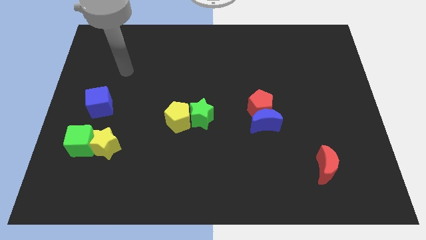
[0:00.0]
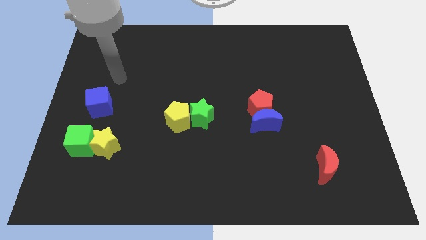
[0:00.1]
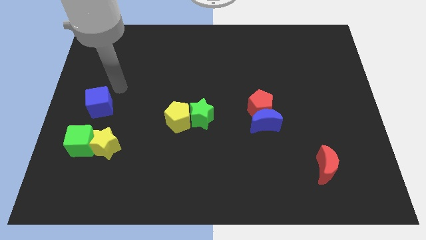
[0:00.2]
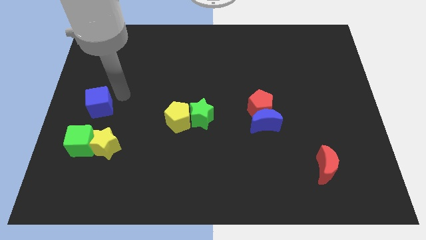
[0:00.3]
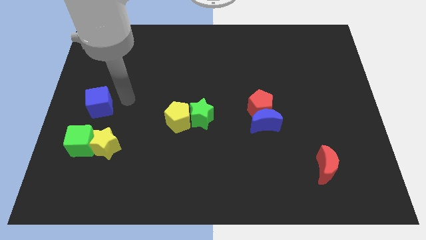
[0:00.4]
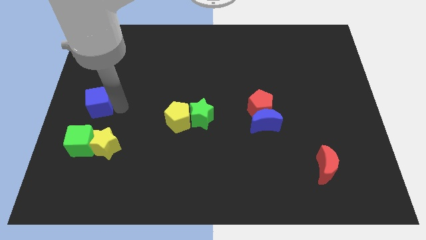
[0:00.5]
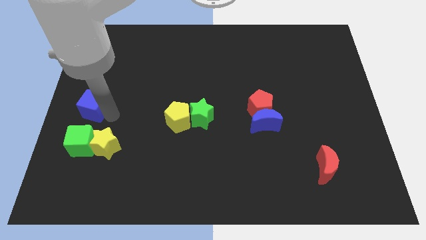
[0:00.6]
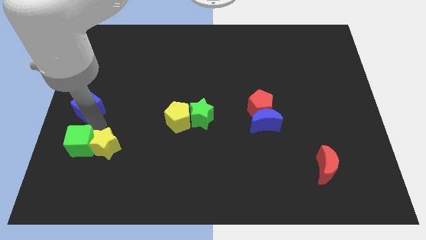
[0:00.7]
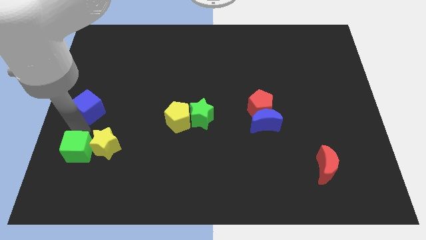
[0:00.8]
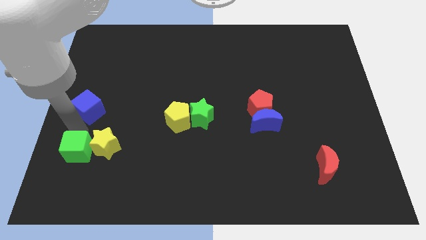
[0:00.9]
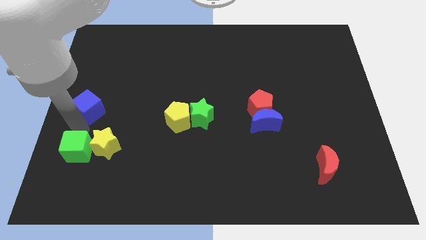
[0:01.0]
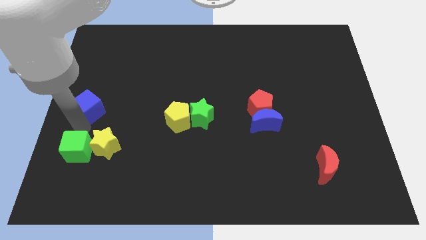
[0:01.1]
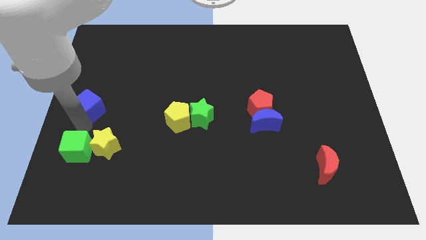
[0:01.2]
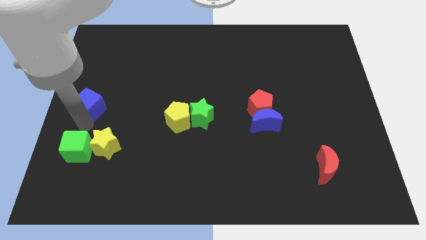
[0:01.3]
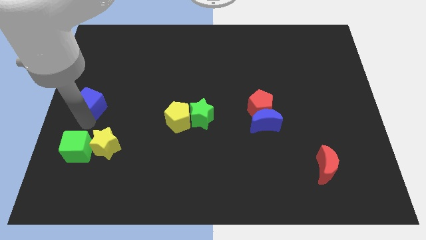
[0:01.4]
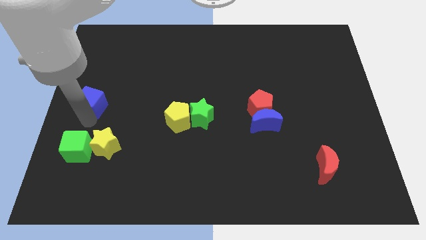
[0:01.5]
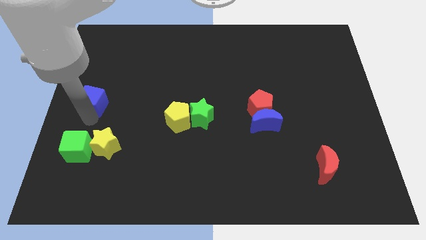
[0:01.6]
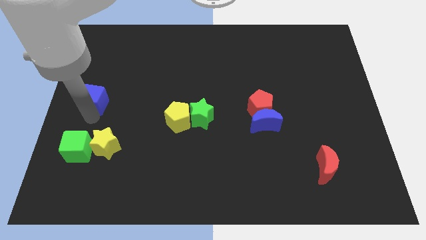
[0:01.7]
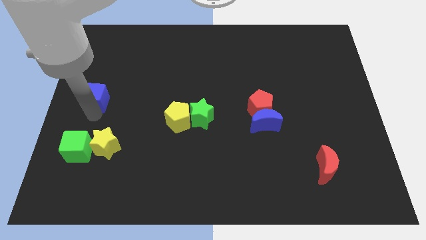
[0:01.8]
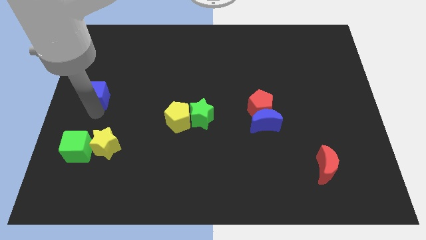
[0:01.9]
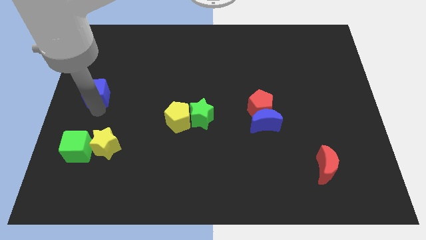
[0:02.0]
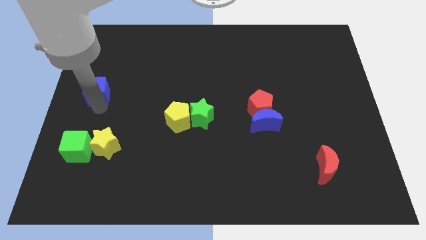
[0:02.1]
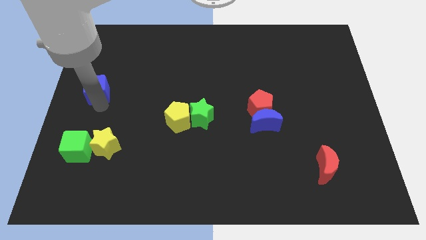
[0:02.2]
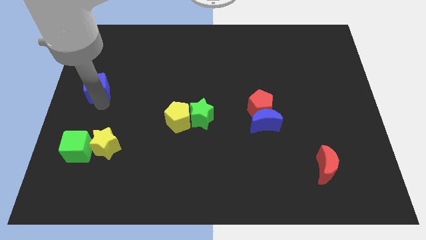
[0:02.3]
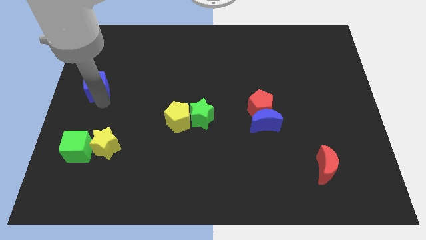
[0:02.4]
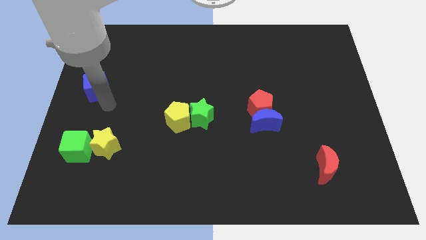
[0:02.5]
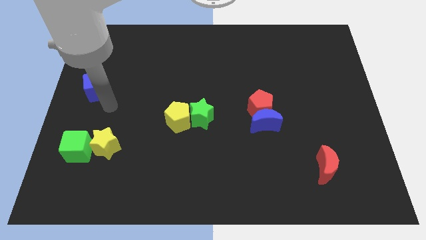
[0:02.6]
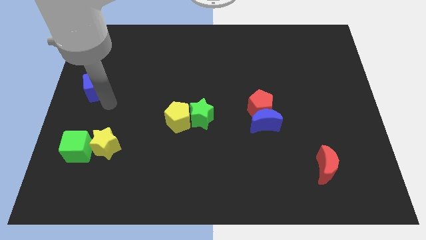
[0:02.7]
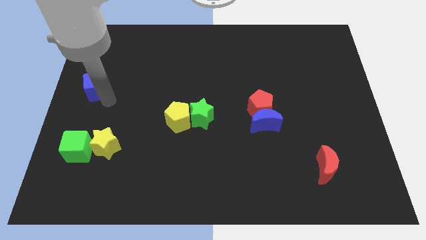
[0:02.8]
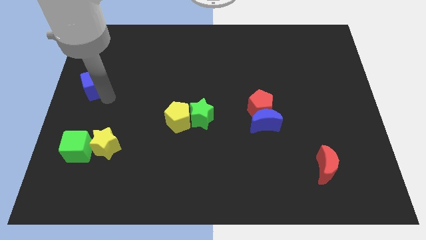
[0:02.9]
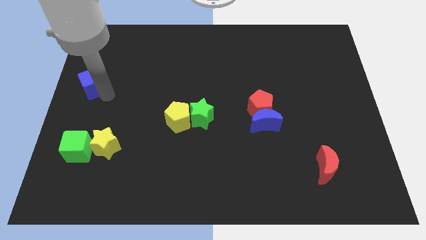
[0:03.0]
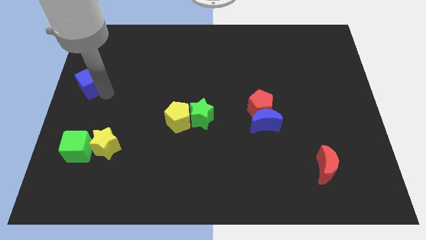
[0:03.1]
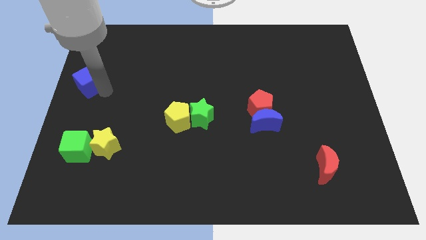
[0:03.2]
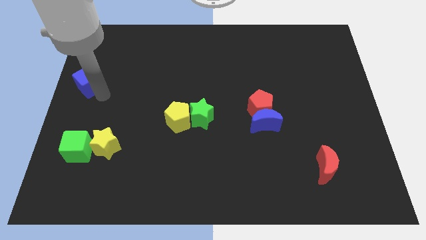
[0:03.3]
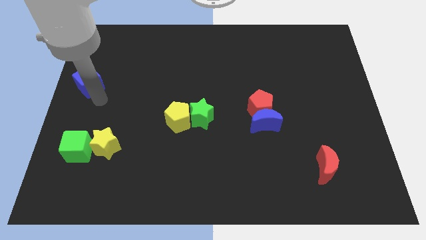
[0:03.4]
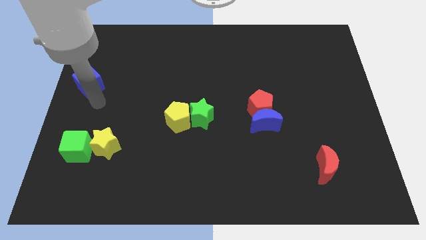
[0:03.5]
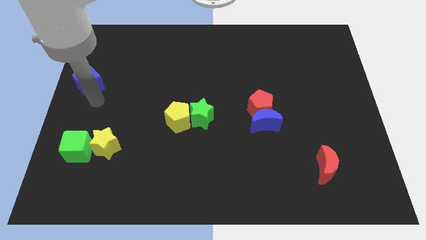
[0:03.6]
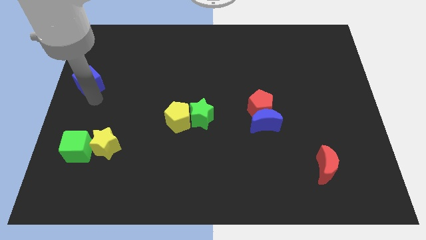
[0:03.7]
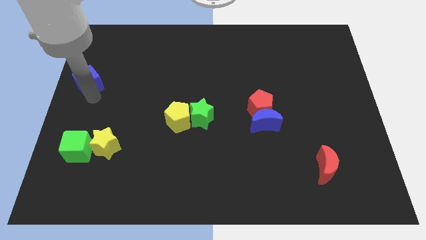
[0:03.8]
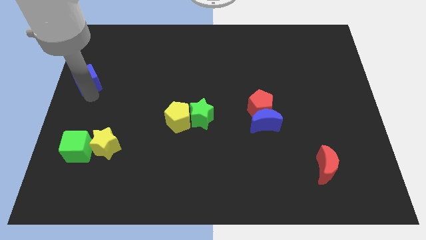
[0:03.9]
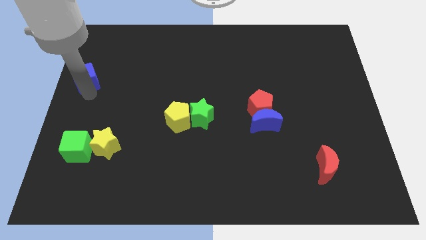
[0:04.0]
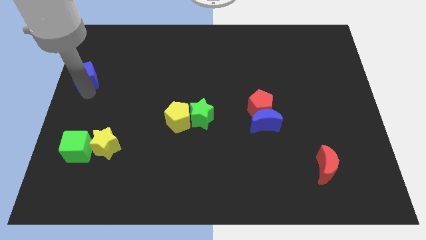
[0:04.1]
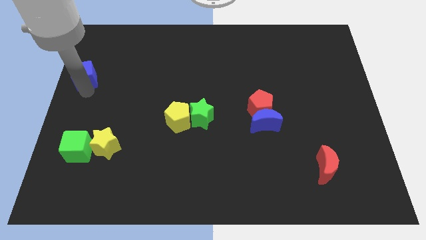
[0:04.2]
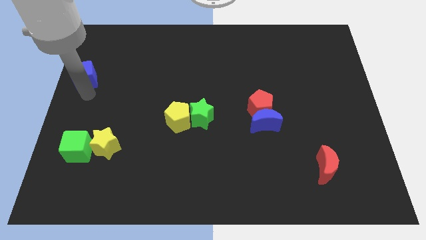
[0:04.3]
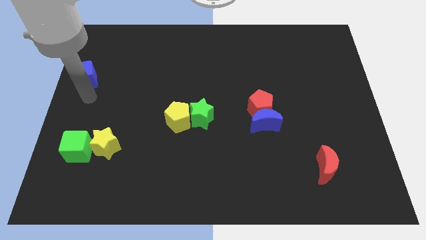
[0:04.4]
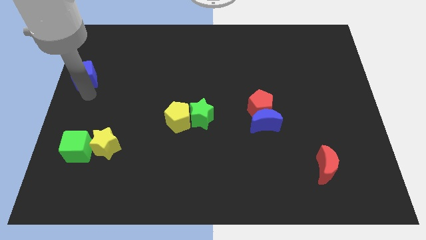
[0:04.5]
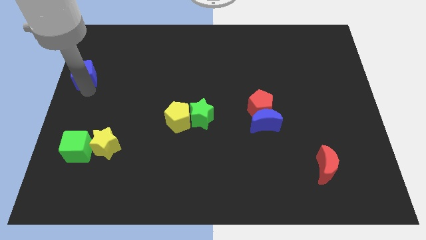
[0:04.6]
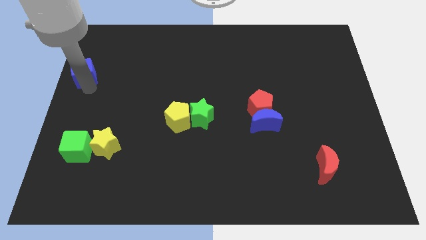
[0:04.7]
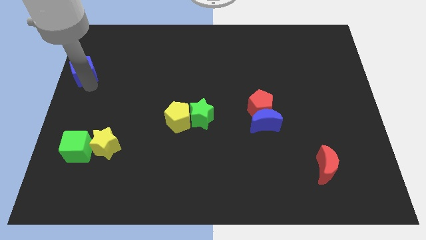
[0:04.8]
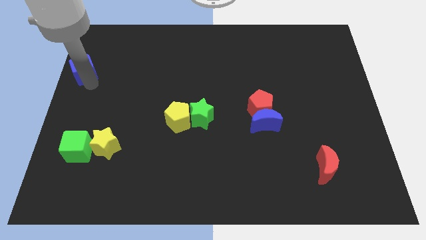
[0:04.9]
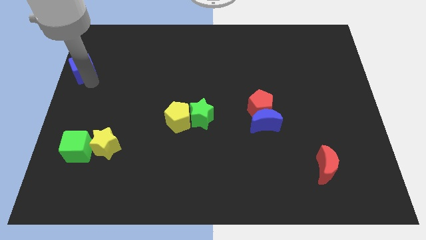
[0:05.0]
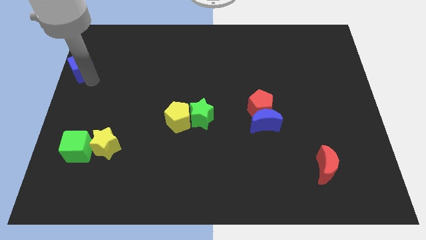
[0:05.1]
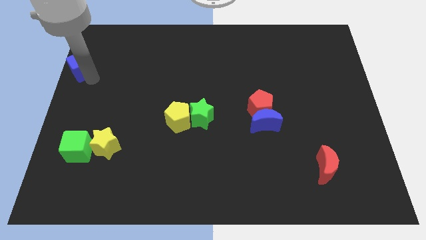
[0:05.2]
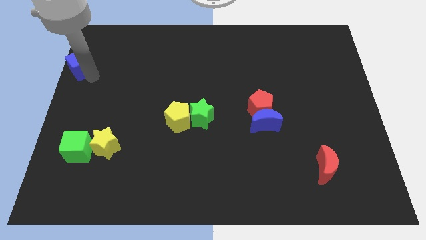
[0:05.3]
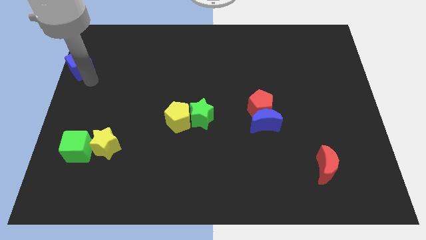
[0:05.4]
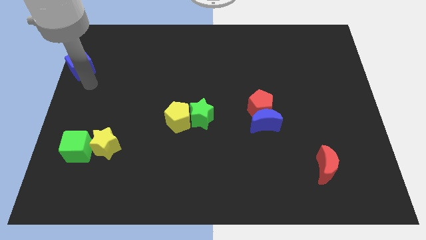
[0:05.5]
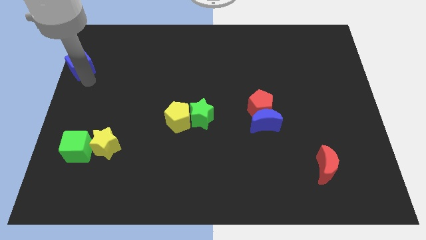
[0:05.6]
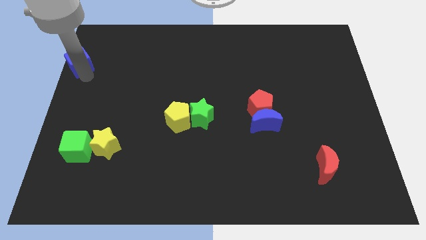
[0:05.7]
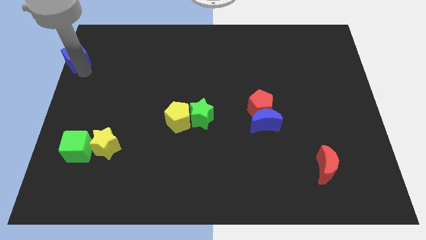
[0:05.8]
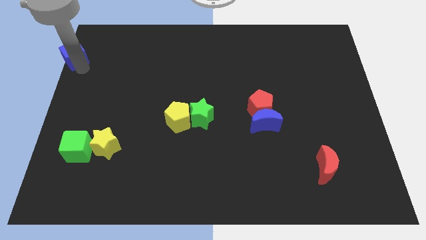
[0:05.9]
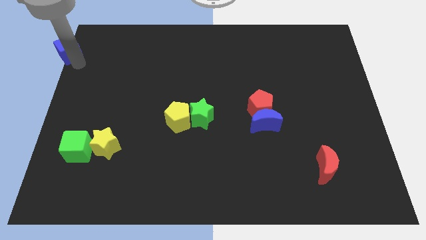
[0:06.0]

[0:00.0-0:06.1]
slide the blue cube to the upper left corner
